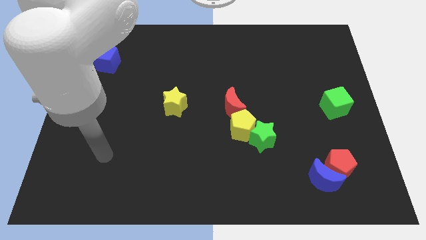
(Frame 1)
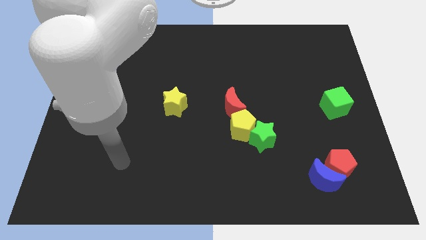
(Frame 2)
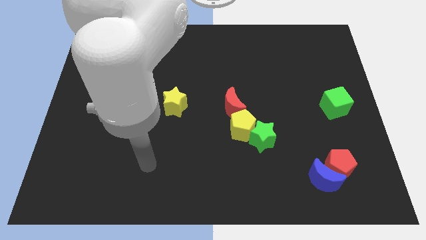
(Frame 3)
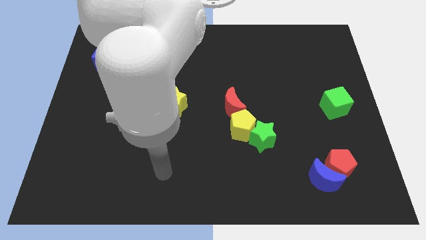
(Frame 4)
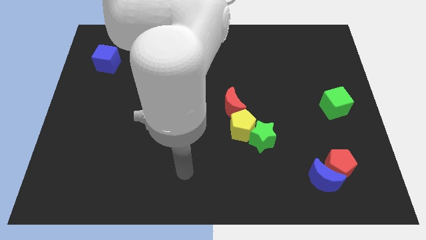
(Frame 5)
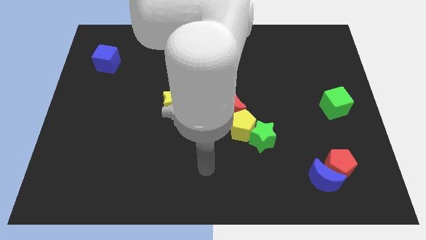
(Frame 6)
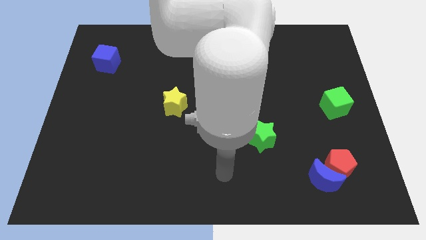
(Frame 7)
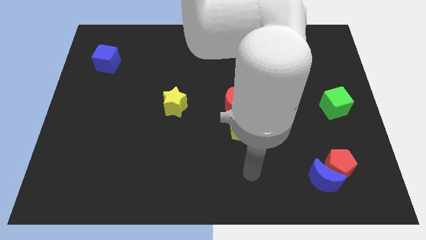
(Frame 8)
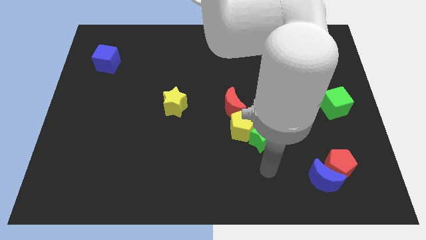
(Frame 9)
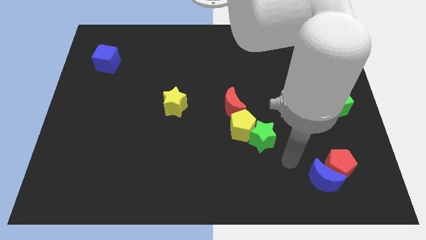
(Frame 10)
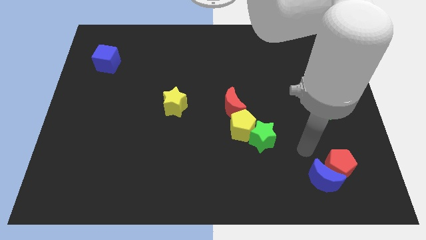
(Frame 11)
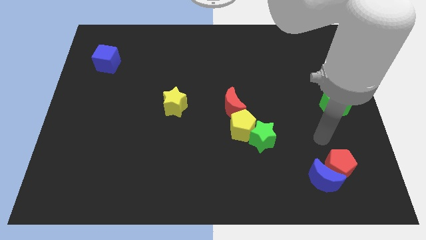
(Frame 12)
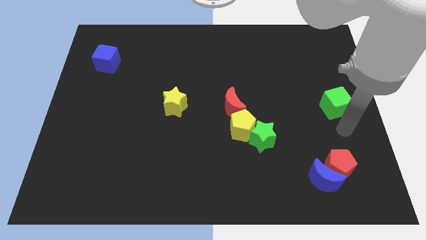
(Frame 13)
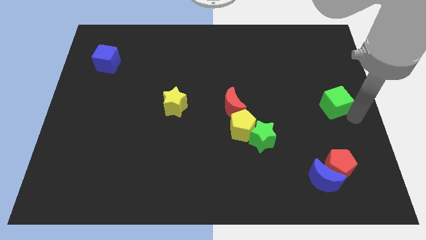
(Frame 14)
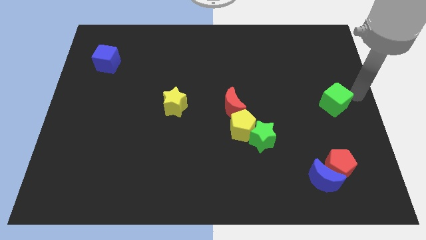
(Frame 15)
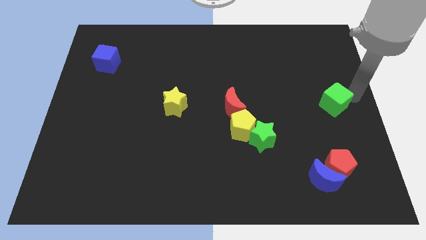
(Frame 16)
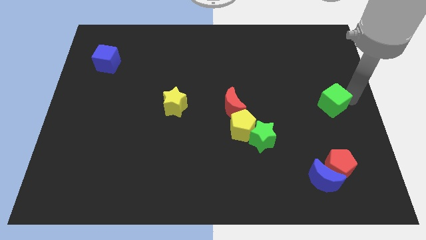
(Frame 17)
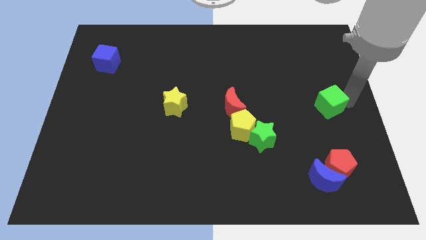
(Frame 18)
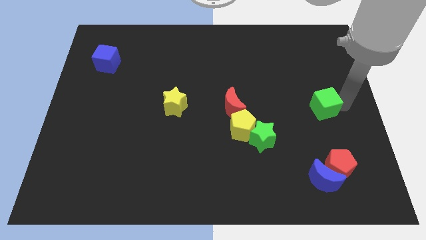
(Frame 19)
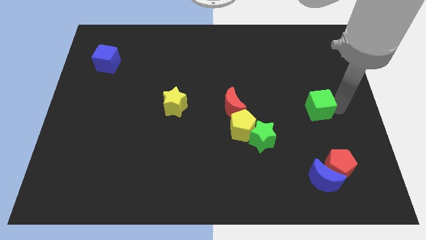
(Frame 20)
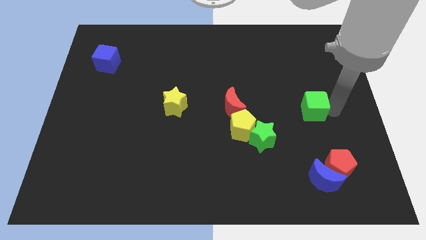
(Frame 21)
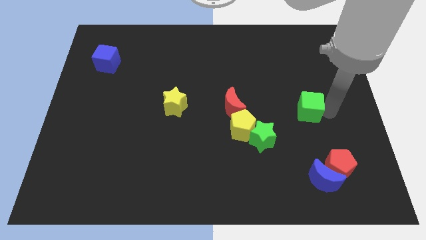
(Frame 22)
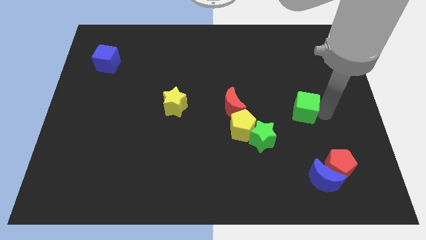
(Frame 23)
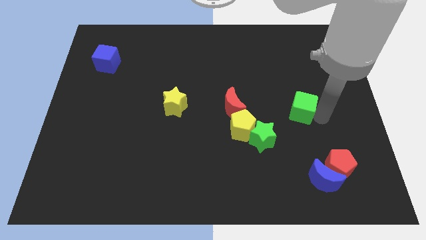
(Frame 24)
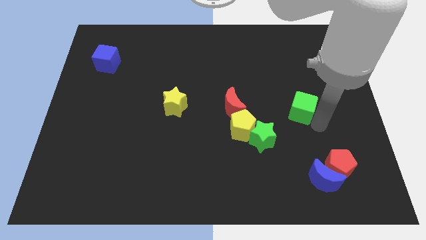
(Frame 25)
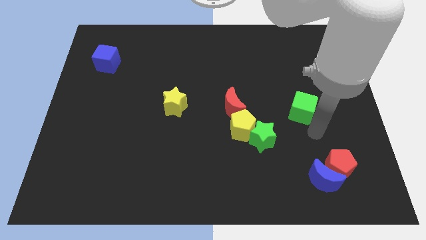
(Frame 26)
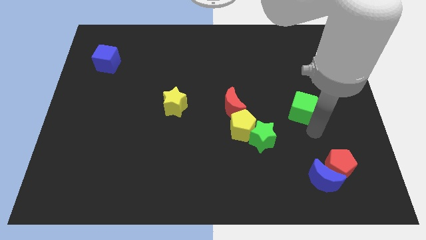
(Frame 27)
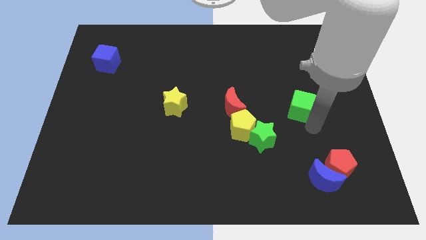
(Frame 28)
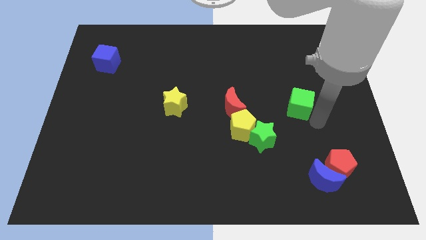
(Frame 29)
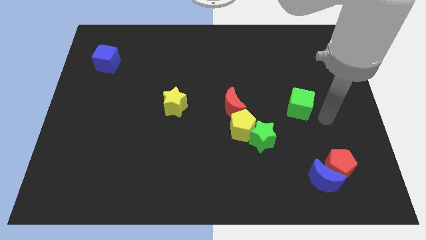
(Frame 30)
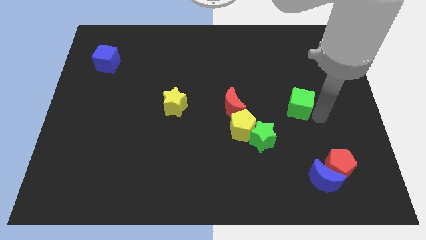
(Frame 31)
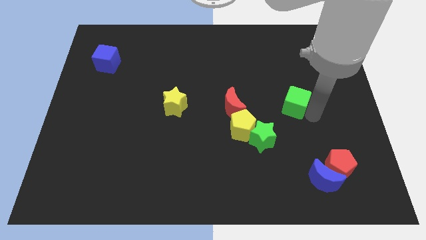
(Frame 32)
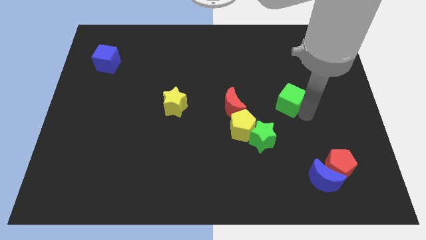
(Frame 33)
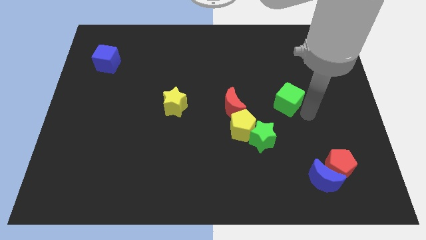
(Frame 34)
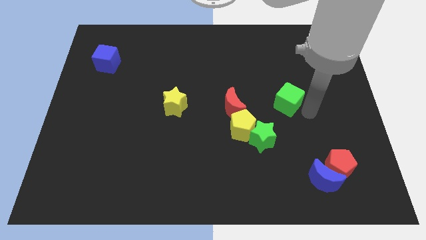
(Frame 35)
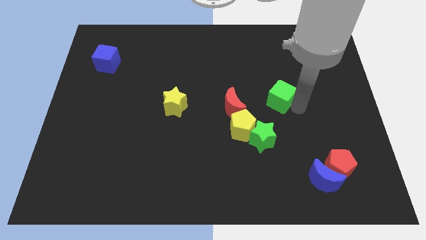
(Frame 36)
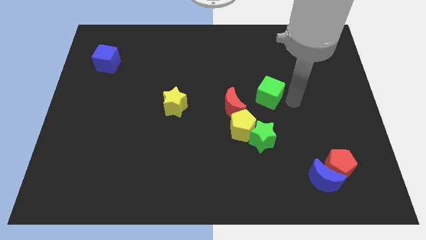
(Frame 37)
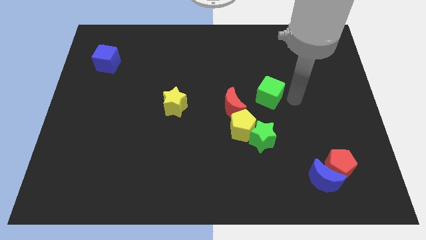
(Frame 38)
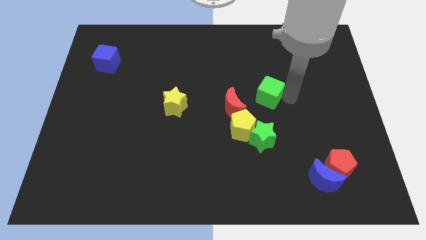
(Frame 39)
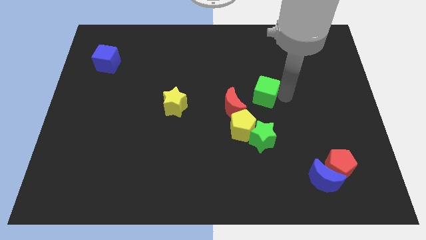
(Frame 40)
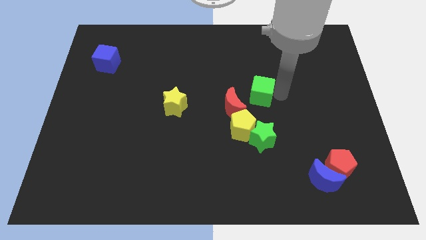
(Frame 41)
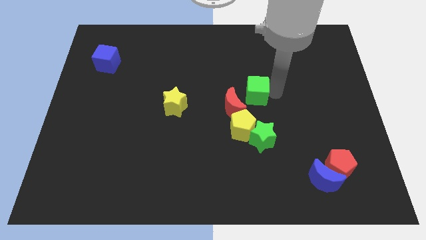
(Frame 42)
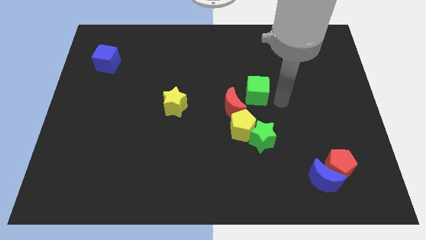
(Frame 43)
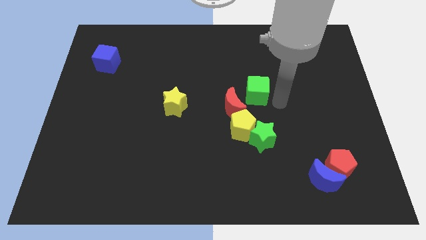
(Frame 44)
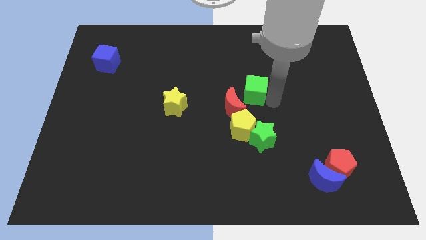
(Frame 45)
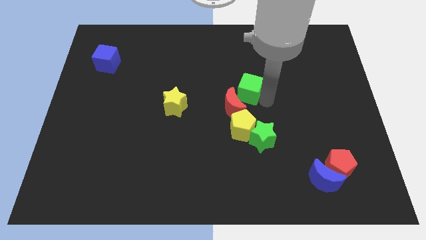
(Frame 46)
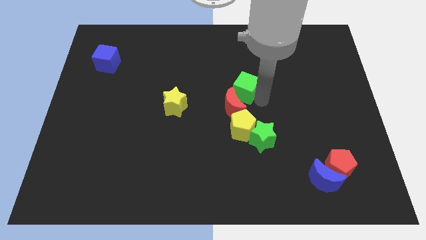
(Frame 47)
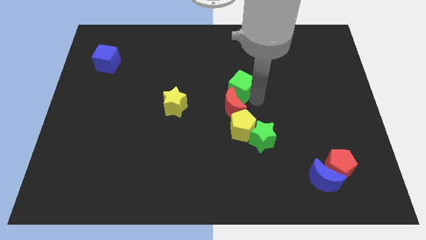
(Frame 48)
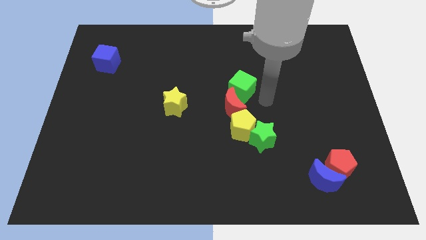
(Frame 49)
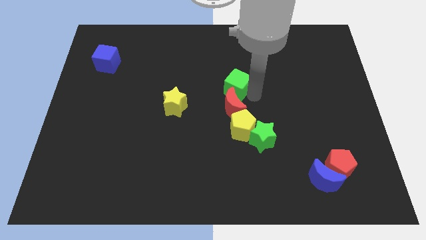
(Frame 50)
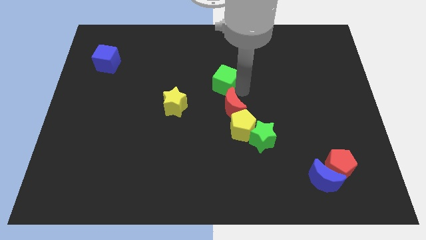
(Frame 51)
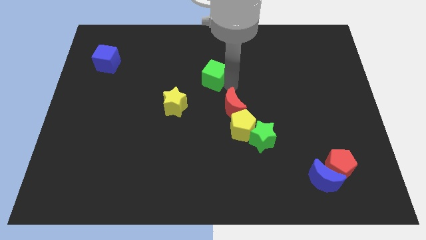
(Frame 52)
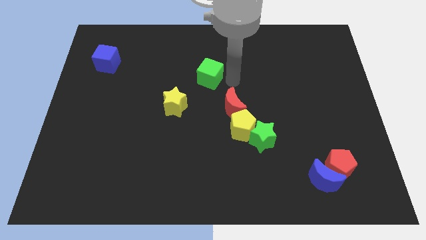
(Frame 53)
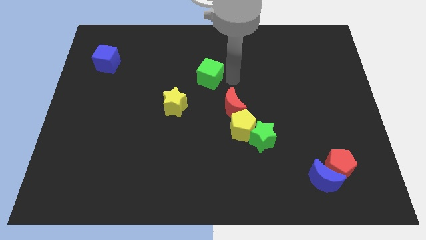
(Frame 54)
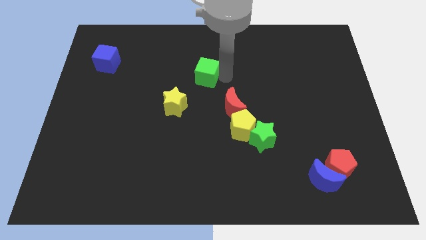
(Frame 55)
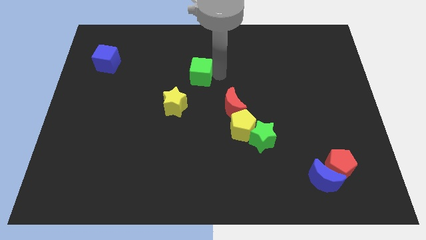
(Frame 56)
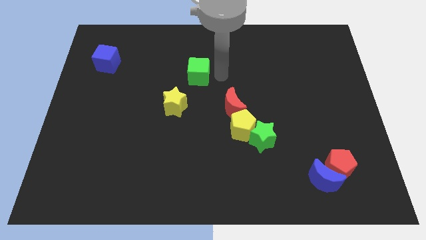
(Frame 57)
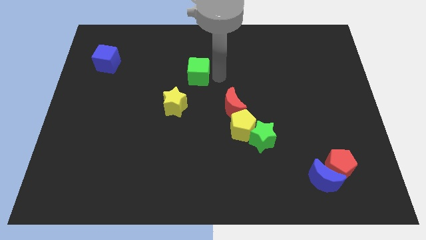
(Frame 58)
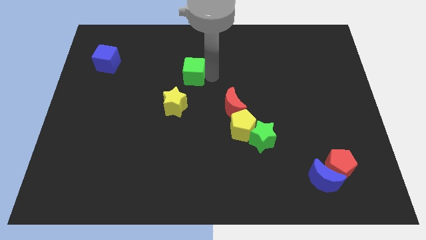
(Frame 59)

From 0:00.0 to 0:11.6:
put the green cube to the top of the yellow star

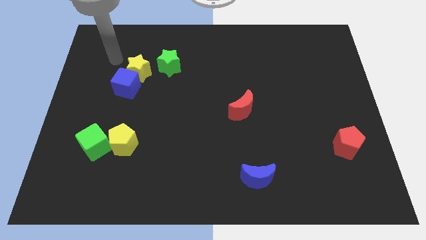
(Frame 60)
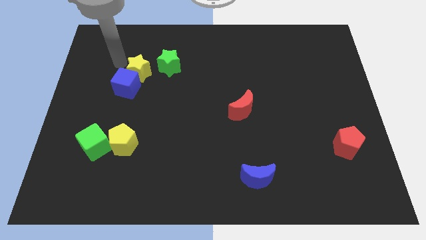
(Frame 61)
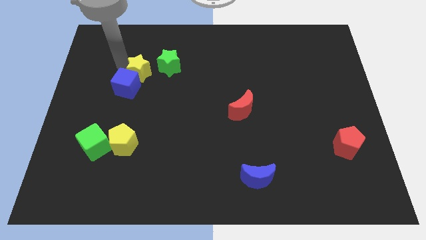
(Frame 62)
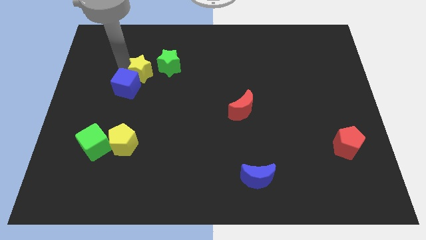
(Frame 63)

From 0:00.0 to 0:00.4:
slide the yellow star just right of the blue cube
